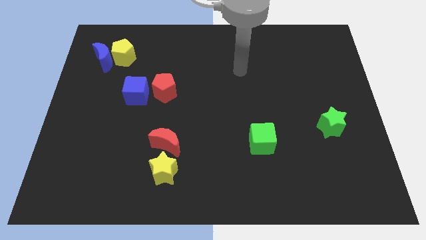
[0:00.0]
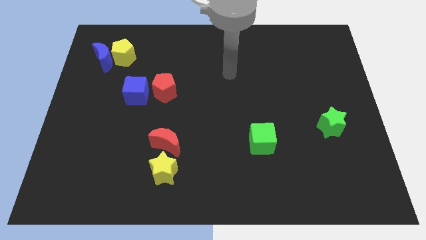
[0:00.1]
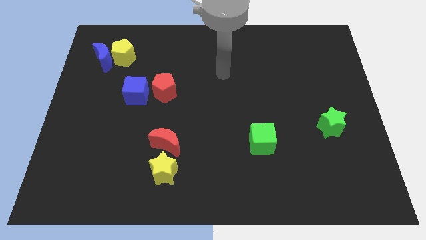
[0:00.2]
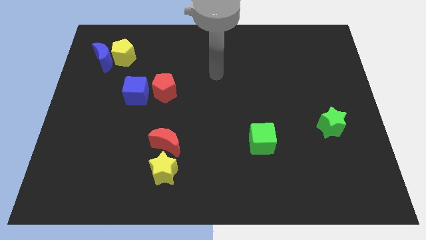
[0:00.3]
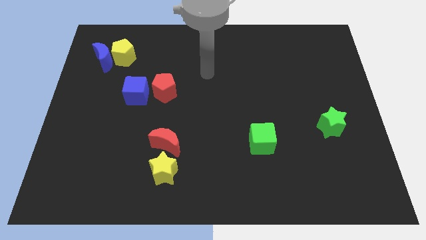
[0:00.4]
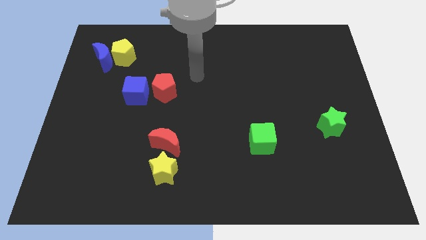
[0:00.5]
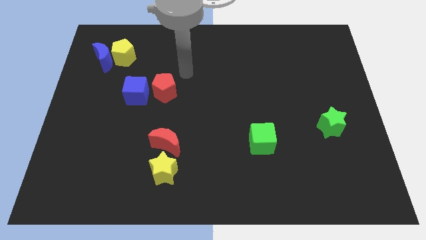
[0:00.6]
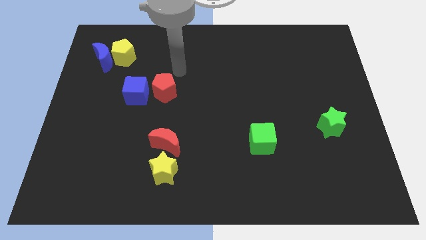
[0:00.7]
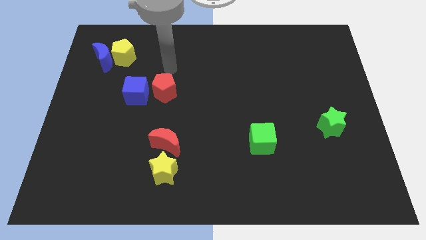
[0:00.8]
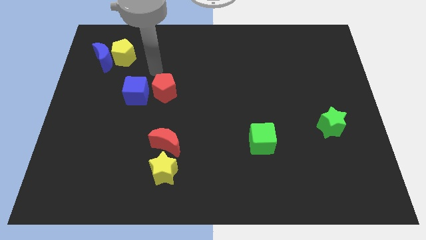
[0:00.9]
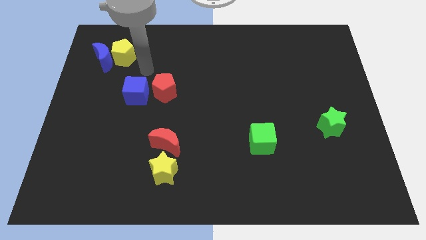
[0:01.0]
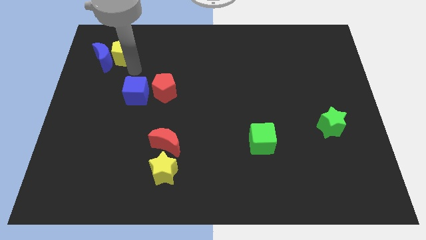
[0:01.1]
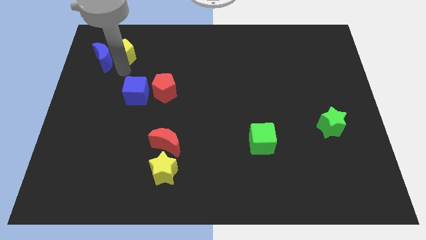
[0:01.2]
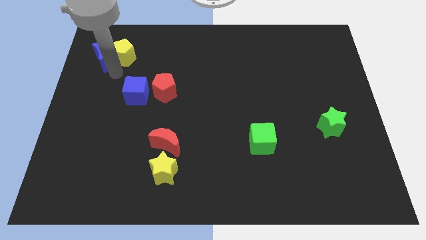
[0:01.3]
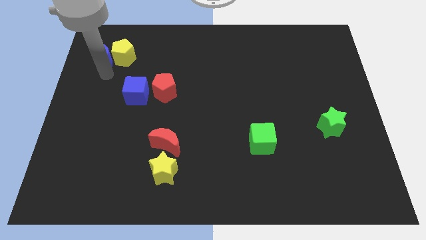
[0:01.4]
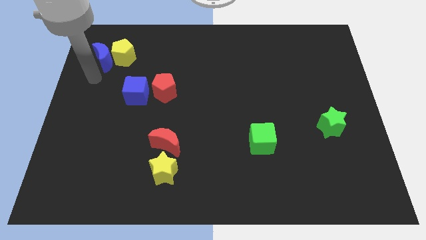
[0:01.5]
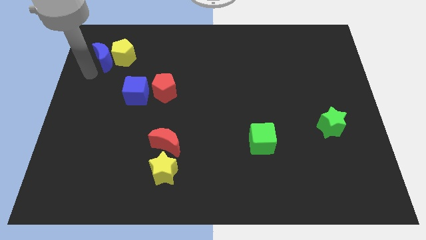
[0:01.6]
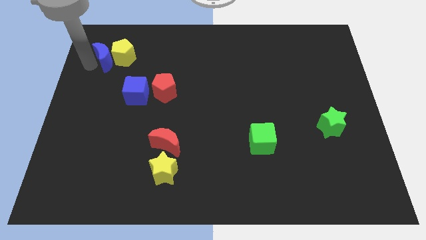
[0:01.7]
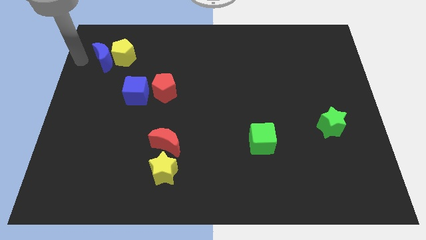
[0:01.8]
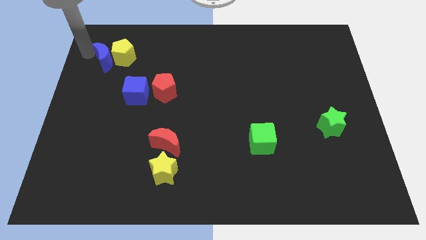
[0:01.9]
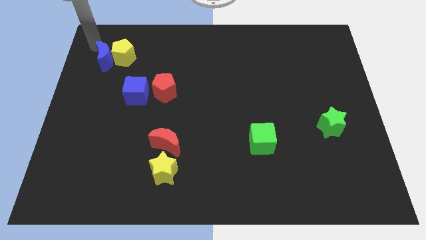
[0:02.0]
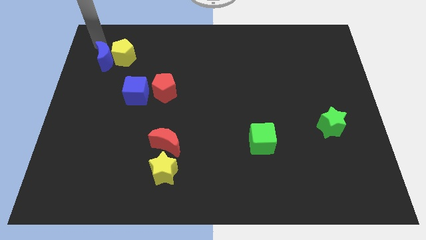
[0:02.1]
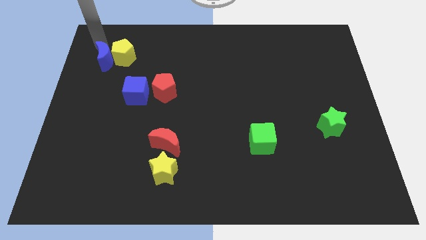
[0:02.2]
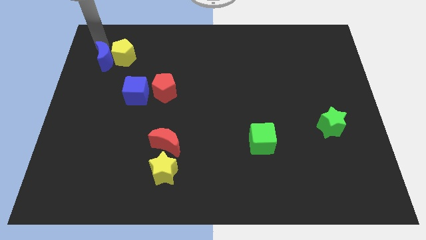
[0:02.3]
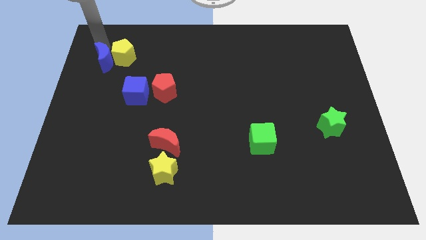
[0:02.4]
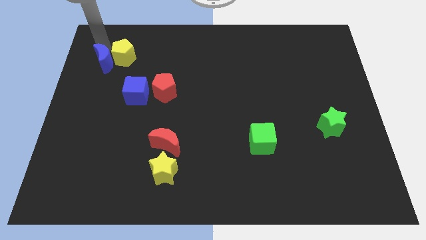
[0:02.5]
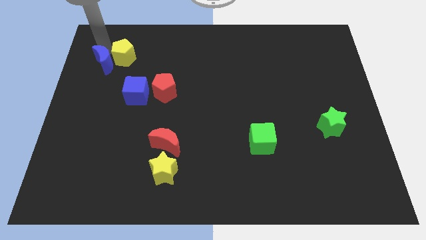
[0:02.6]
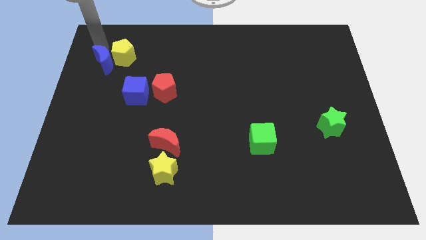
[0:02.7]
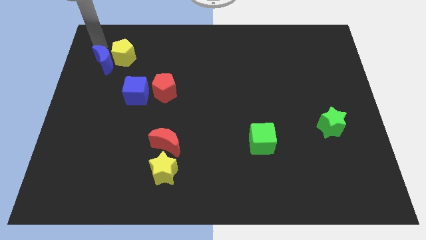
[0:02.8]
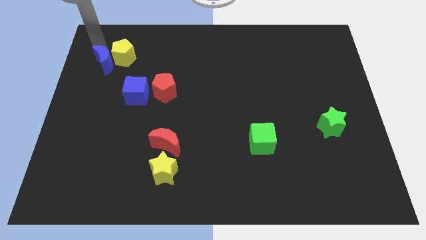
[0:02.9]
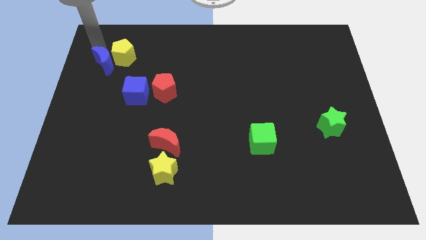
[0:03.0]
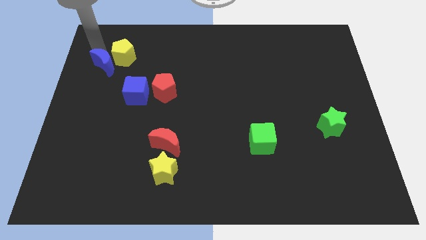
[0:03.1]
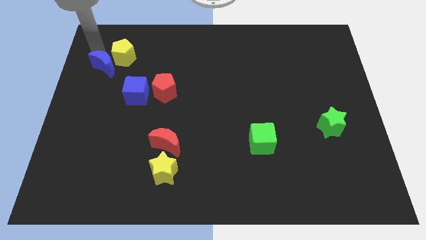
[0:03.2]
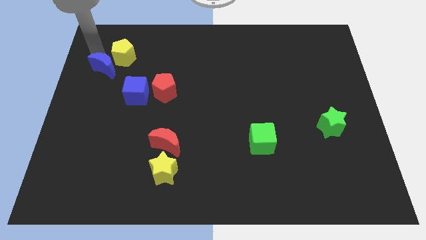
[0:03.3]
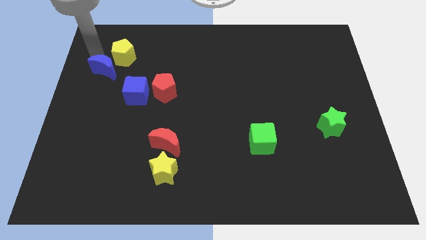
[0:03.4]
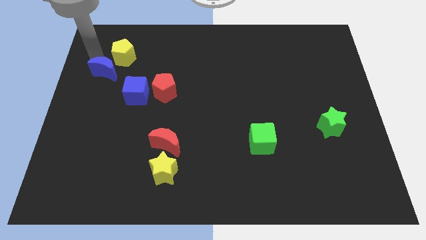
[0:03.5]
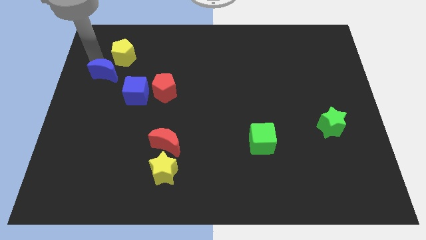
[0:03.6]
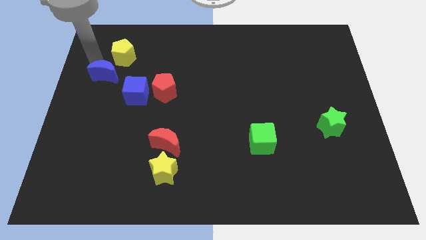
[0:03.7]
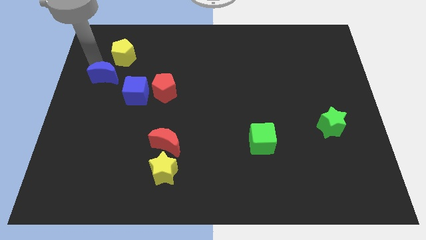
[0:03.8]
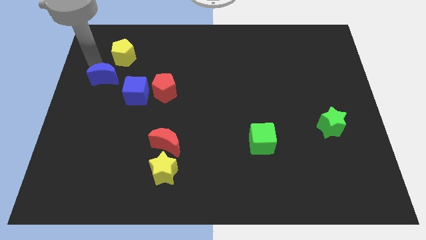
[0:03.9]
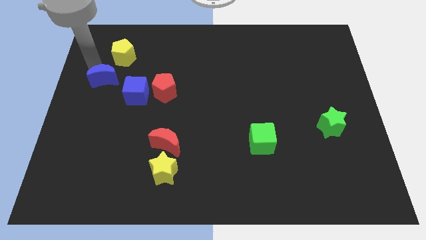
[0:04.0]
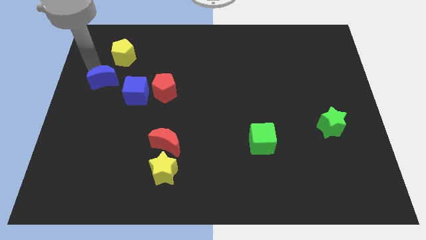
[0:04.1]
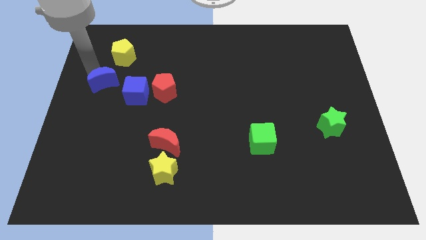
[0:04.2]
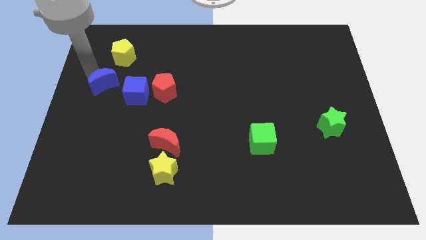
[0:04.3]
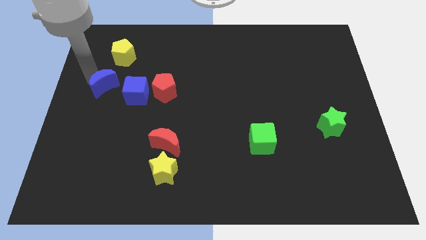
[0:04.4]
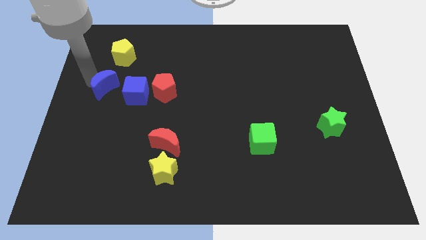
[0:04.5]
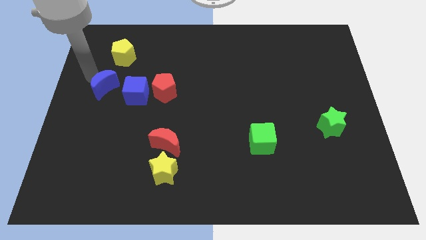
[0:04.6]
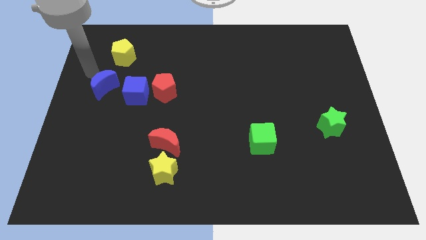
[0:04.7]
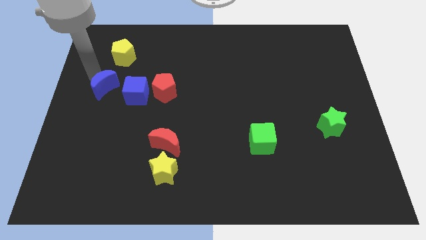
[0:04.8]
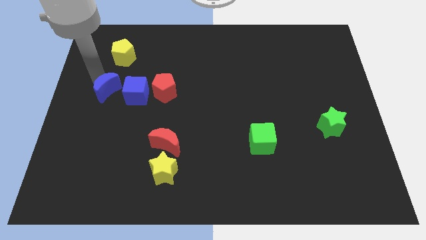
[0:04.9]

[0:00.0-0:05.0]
push the blue moon downwards and right diagonally slightly

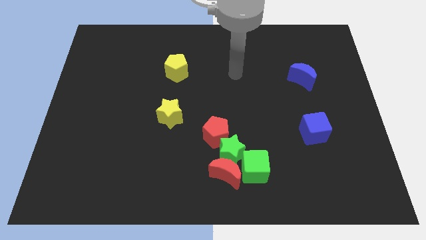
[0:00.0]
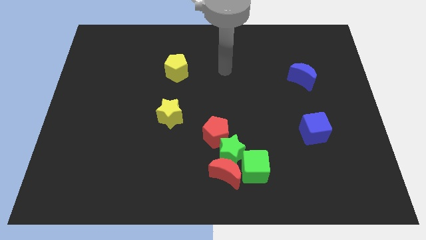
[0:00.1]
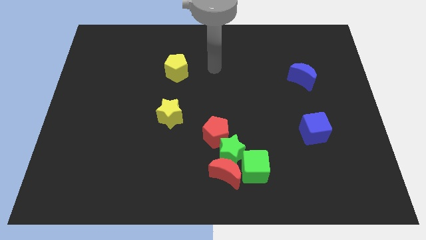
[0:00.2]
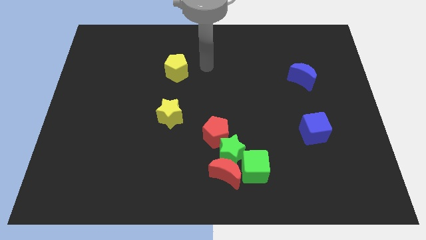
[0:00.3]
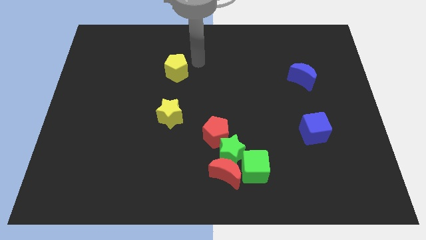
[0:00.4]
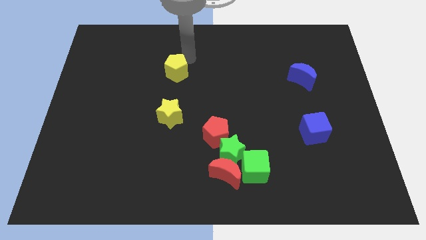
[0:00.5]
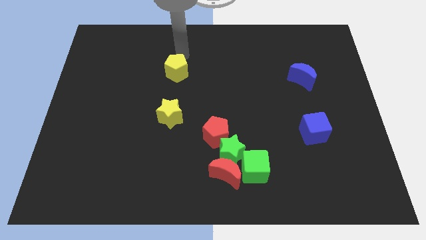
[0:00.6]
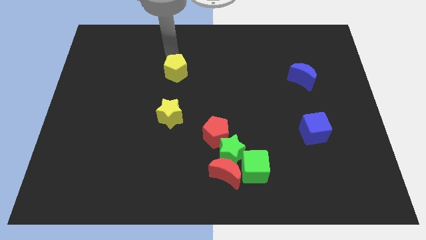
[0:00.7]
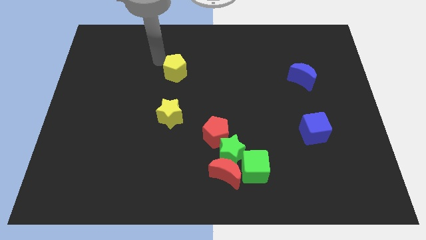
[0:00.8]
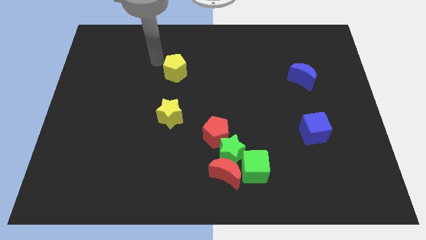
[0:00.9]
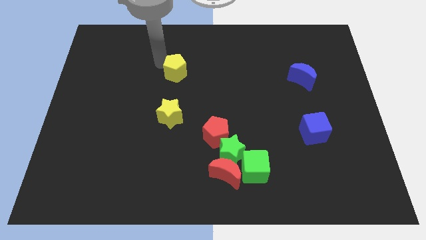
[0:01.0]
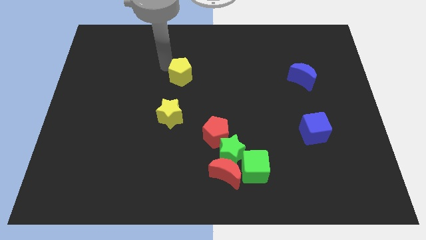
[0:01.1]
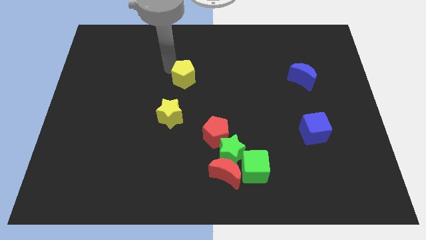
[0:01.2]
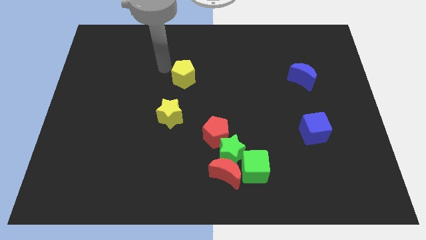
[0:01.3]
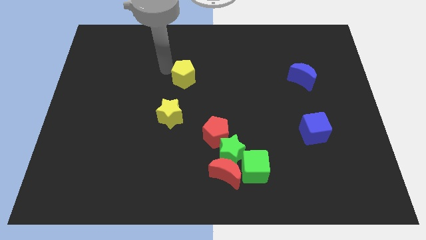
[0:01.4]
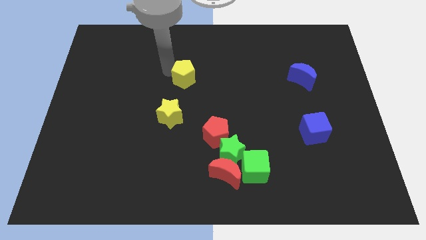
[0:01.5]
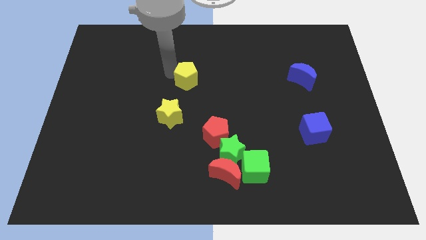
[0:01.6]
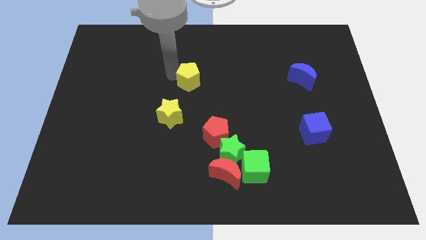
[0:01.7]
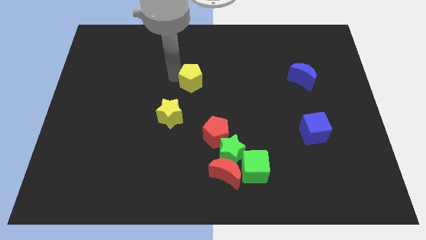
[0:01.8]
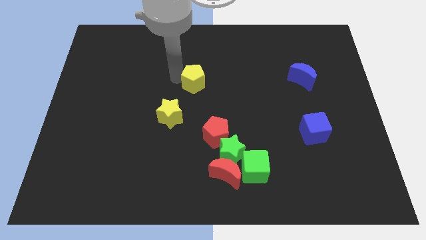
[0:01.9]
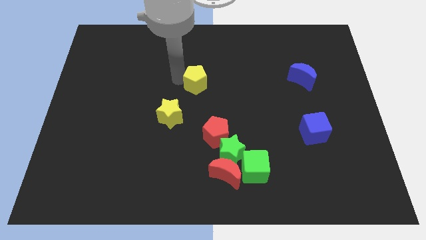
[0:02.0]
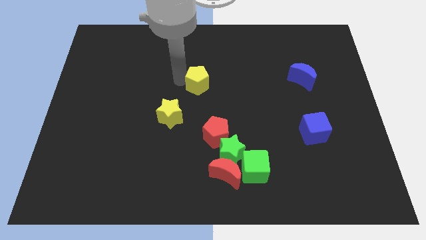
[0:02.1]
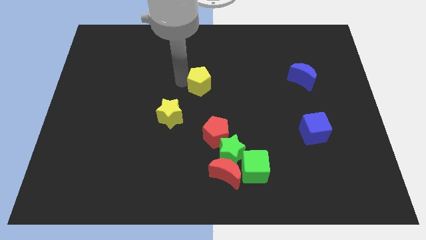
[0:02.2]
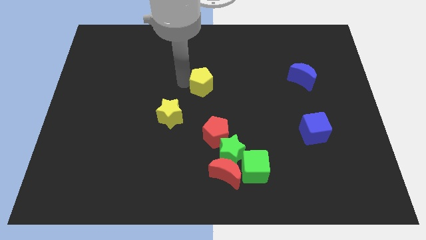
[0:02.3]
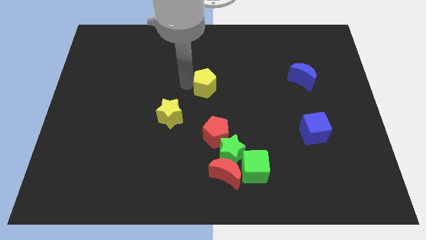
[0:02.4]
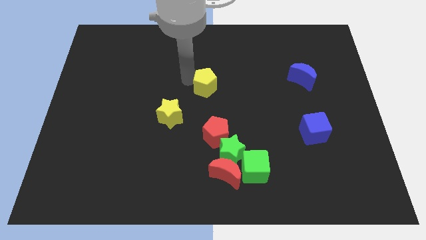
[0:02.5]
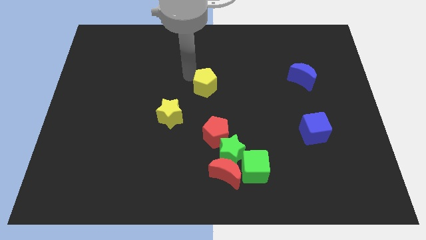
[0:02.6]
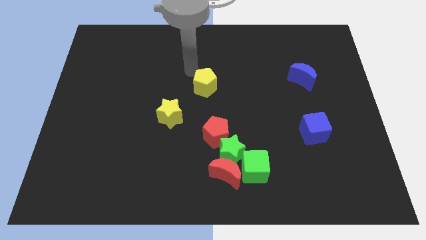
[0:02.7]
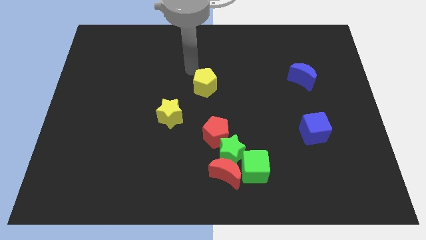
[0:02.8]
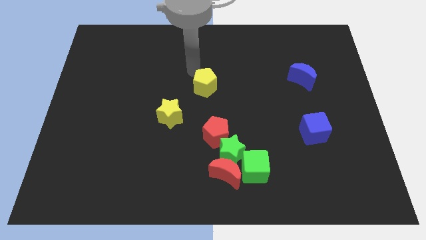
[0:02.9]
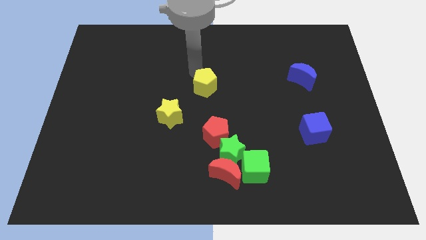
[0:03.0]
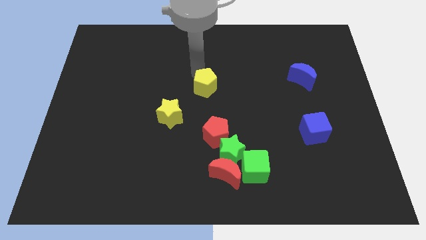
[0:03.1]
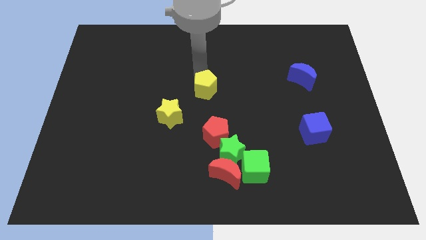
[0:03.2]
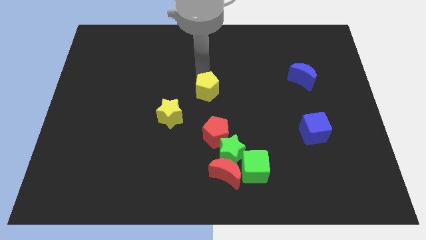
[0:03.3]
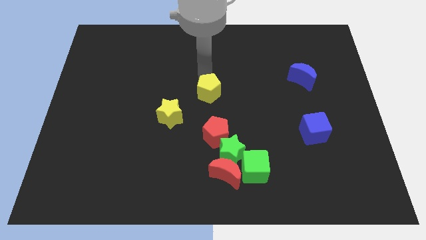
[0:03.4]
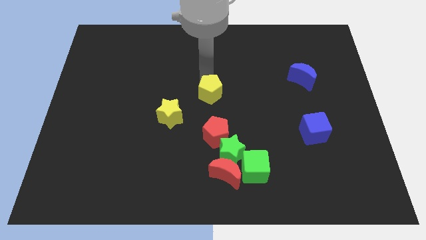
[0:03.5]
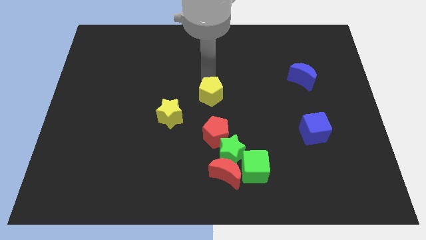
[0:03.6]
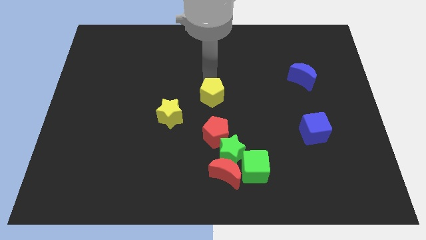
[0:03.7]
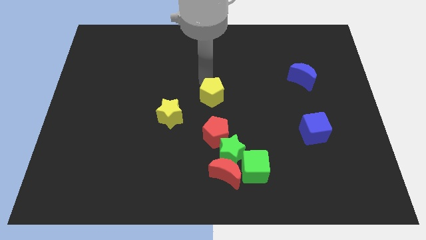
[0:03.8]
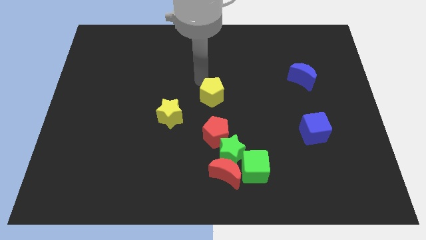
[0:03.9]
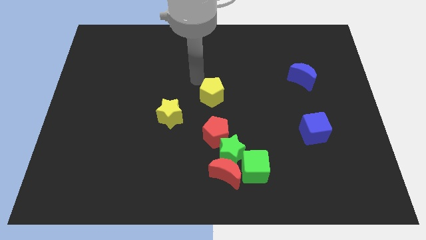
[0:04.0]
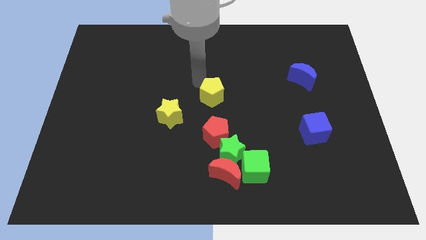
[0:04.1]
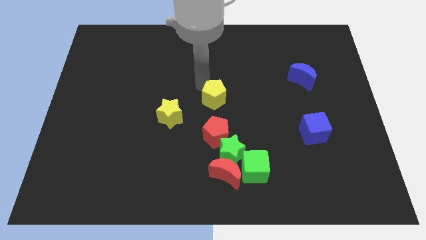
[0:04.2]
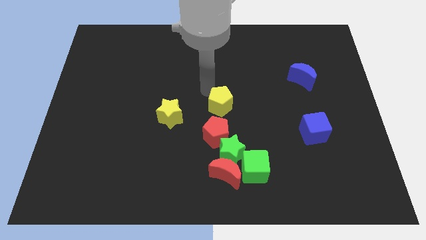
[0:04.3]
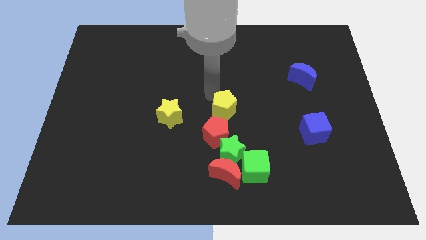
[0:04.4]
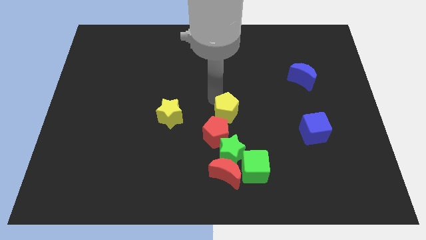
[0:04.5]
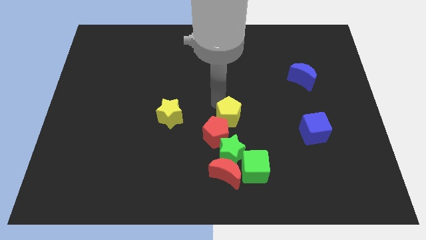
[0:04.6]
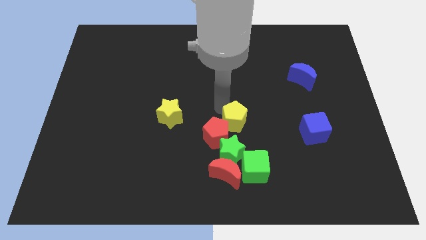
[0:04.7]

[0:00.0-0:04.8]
slide the yellow pentagon downwards and then right
